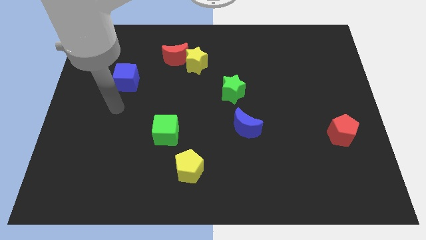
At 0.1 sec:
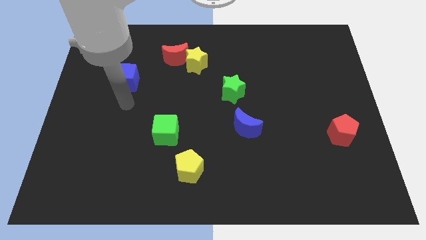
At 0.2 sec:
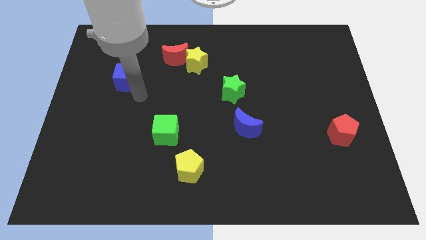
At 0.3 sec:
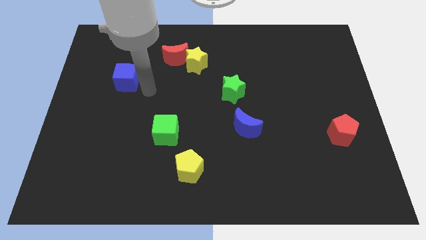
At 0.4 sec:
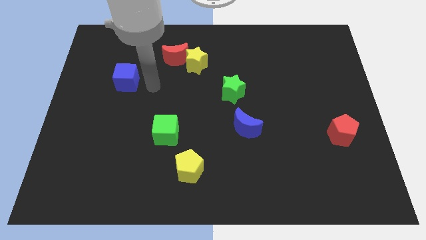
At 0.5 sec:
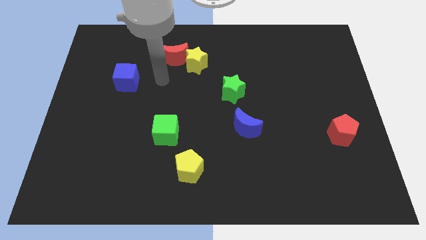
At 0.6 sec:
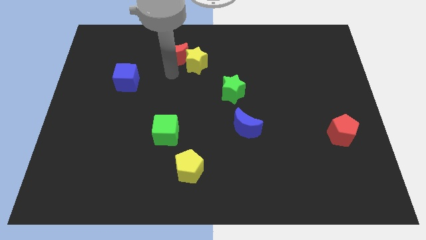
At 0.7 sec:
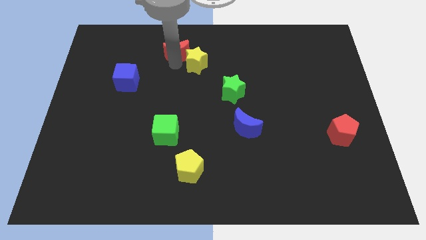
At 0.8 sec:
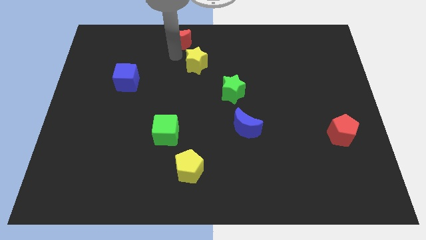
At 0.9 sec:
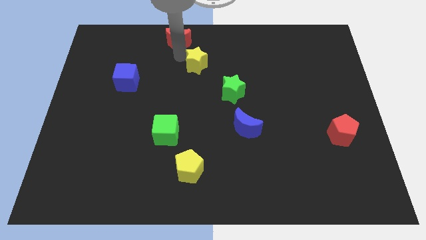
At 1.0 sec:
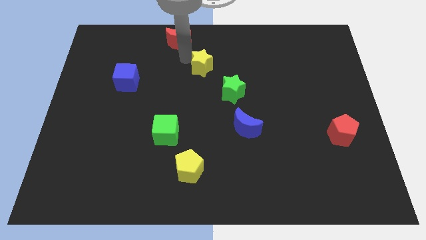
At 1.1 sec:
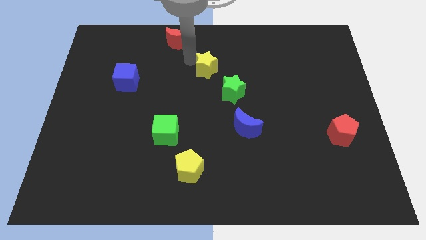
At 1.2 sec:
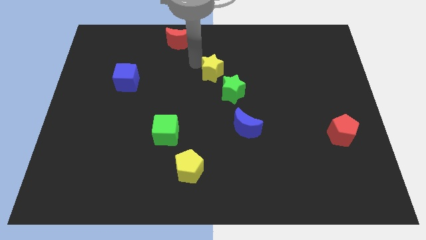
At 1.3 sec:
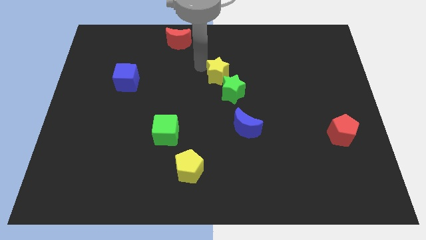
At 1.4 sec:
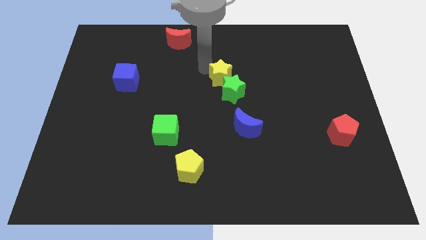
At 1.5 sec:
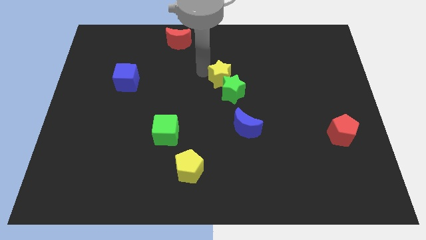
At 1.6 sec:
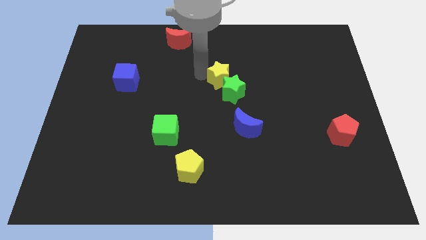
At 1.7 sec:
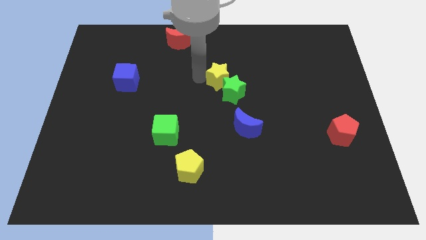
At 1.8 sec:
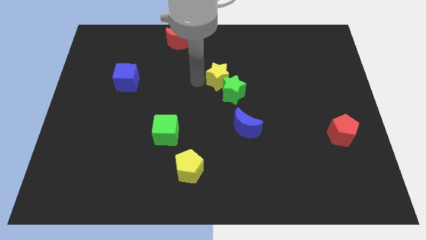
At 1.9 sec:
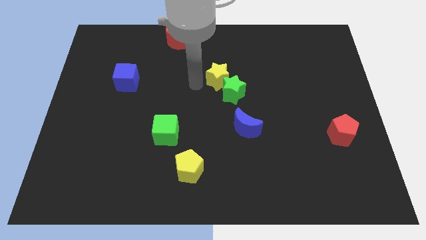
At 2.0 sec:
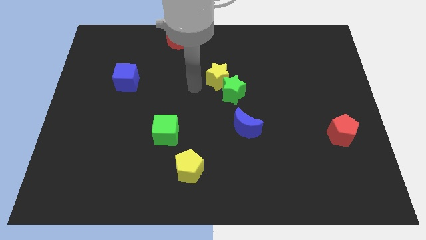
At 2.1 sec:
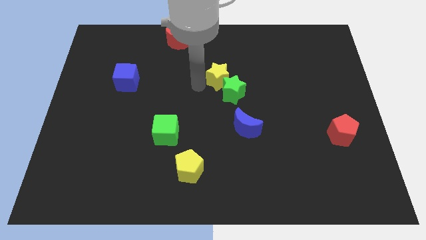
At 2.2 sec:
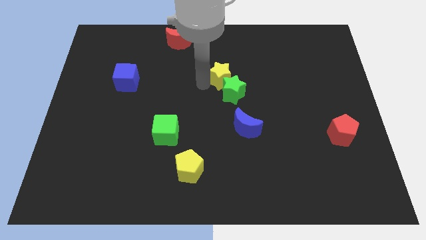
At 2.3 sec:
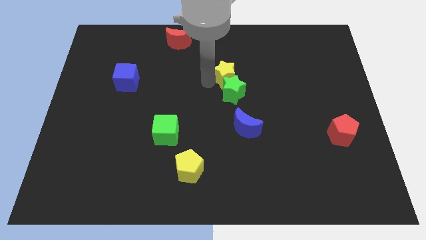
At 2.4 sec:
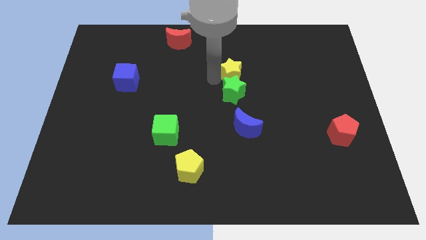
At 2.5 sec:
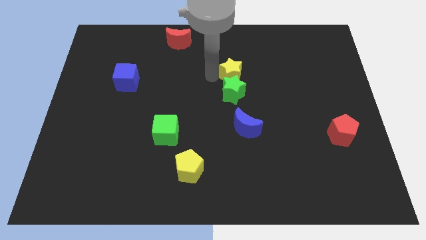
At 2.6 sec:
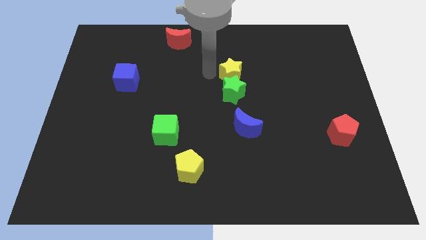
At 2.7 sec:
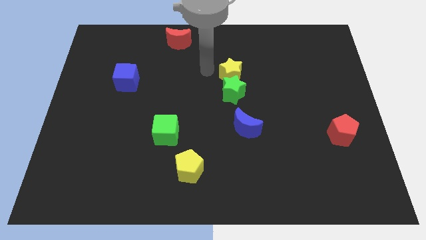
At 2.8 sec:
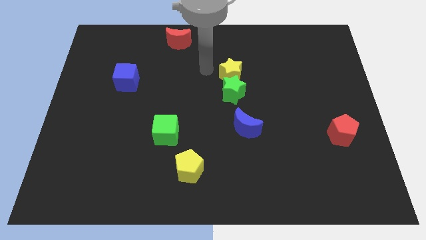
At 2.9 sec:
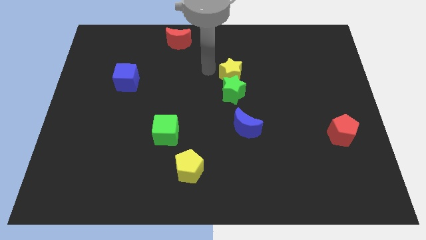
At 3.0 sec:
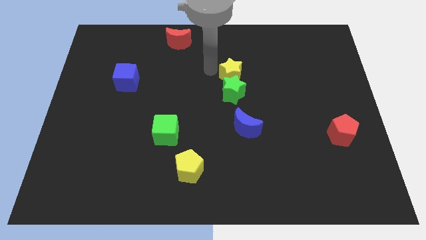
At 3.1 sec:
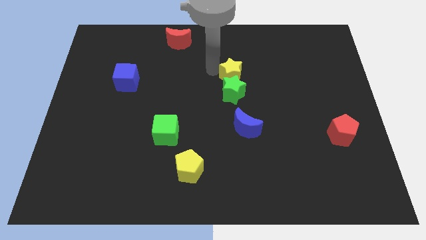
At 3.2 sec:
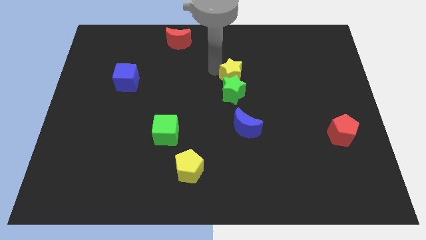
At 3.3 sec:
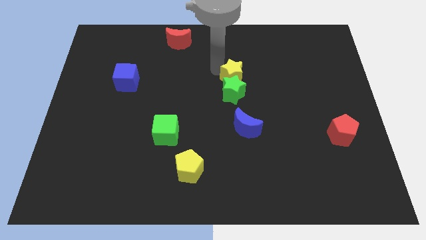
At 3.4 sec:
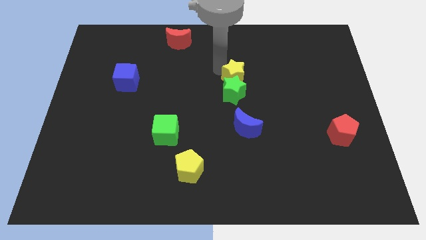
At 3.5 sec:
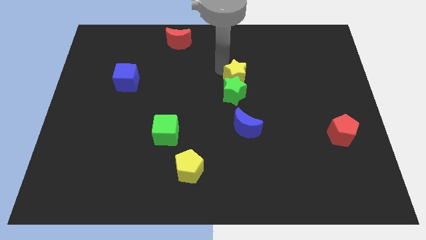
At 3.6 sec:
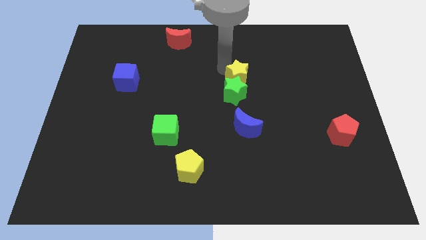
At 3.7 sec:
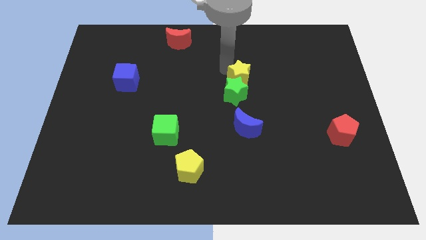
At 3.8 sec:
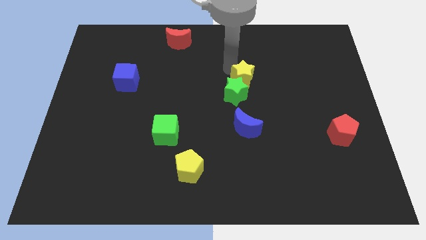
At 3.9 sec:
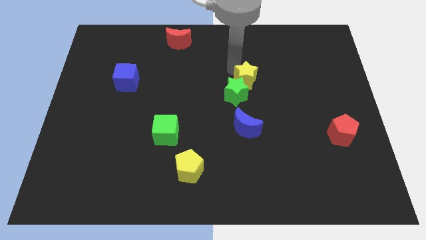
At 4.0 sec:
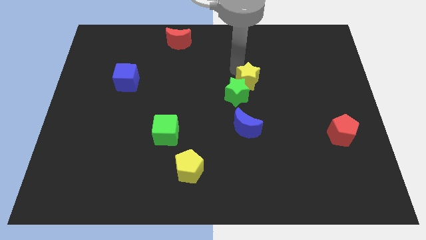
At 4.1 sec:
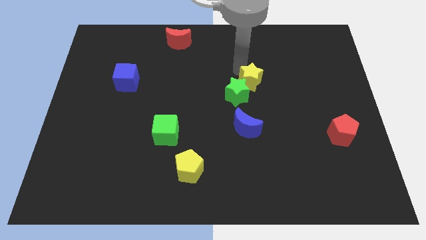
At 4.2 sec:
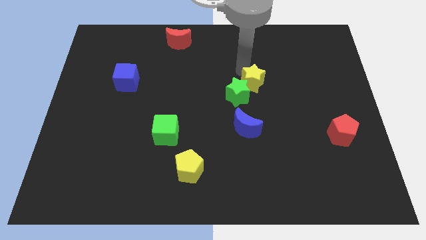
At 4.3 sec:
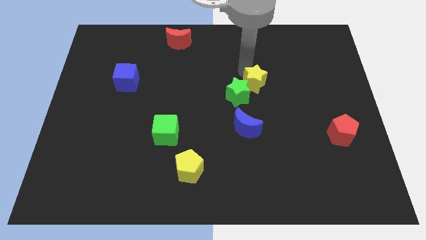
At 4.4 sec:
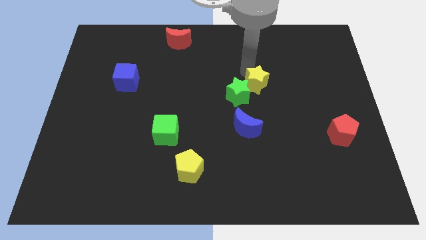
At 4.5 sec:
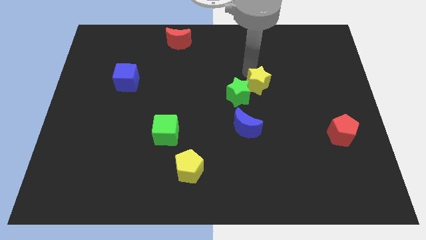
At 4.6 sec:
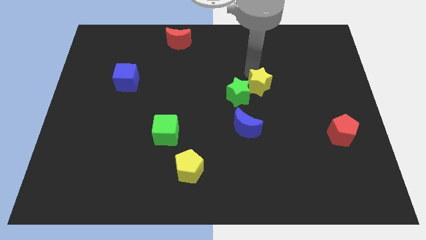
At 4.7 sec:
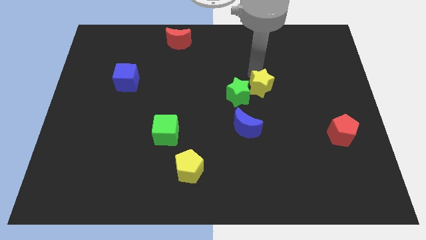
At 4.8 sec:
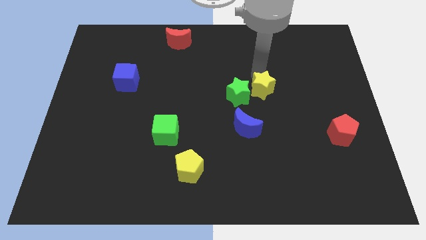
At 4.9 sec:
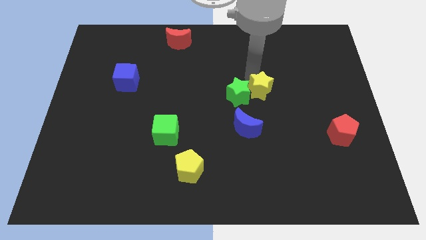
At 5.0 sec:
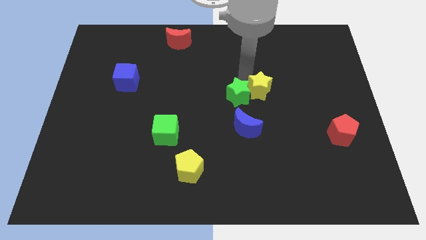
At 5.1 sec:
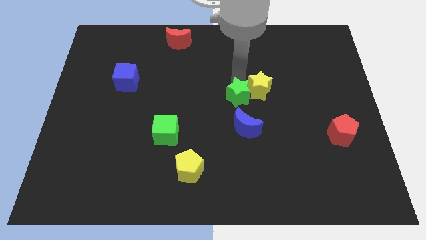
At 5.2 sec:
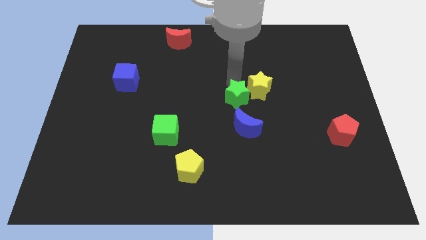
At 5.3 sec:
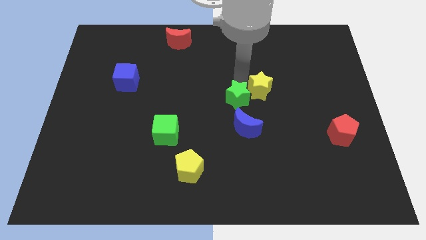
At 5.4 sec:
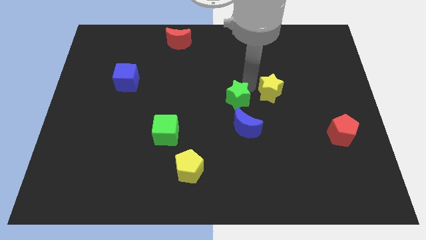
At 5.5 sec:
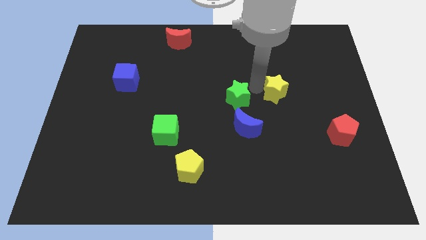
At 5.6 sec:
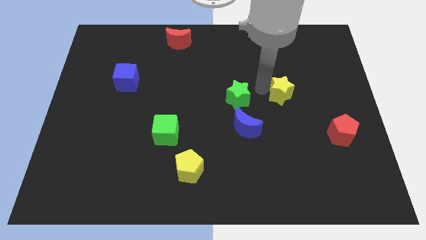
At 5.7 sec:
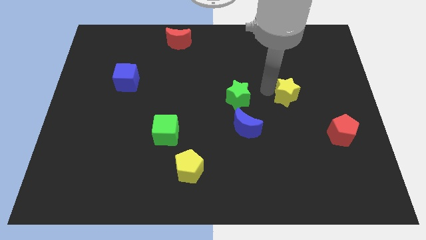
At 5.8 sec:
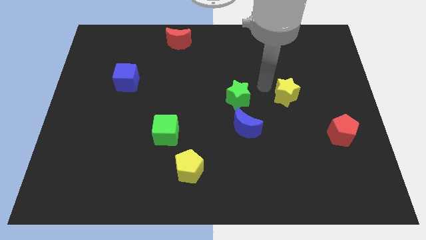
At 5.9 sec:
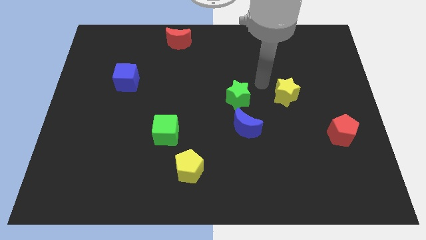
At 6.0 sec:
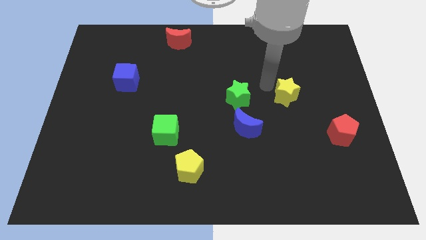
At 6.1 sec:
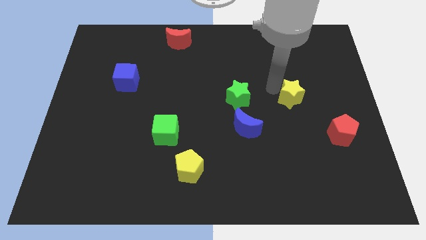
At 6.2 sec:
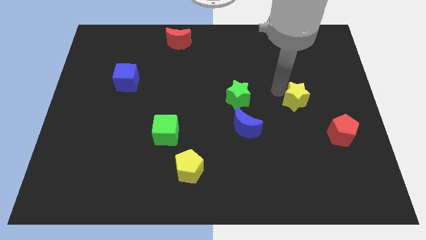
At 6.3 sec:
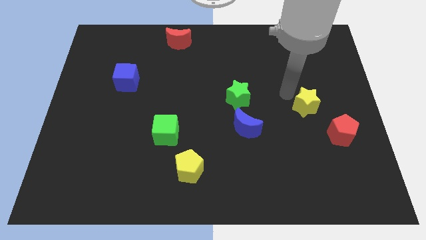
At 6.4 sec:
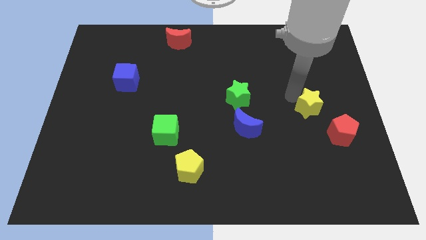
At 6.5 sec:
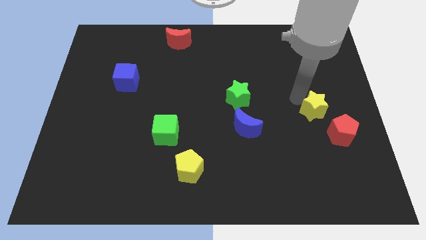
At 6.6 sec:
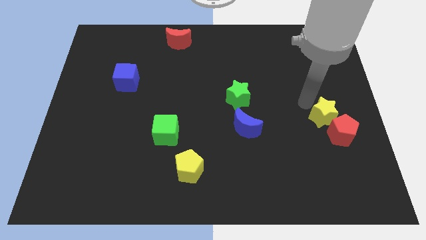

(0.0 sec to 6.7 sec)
push the yellow star towards the red pentagon

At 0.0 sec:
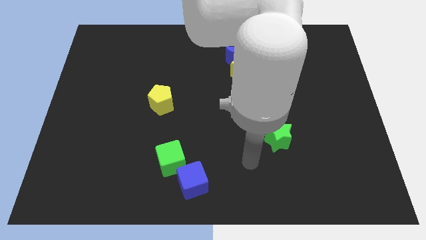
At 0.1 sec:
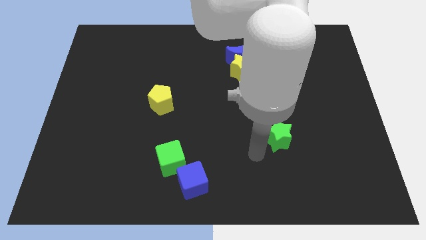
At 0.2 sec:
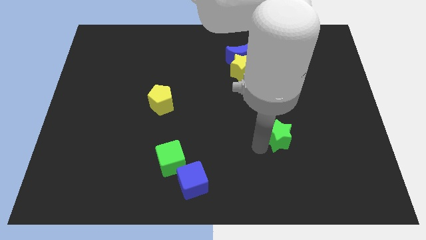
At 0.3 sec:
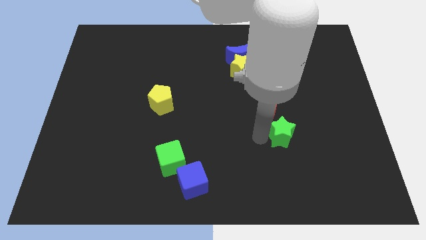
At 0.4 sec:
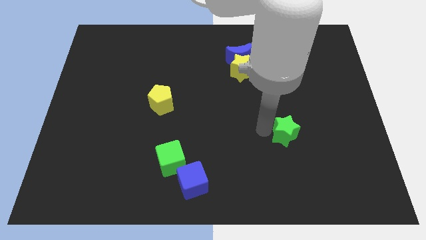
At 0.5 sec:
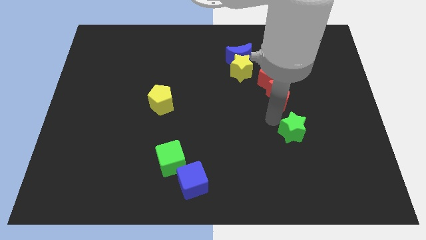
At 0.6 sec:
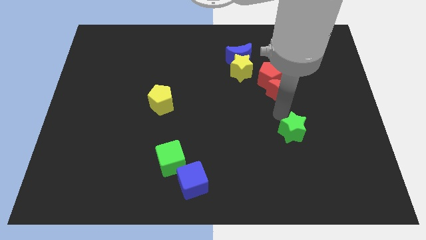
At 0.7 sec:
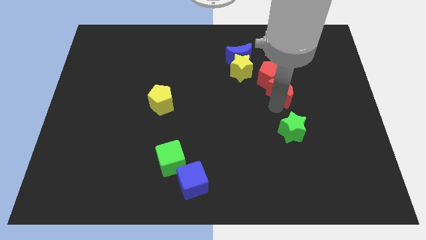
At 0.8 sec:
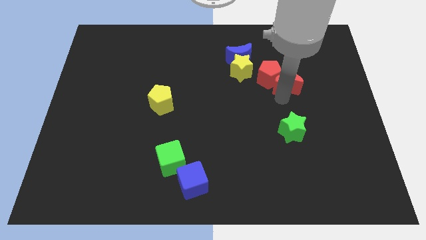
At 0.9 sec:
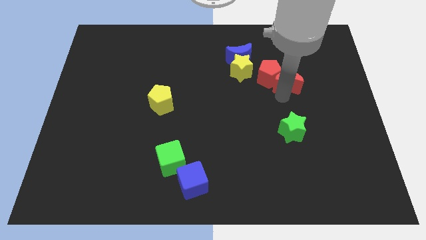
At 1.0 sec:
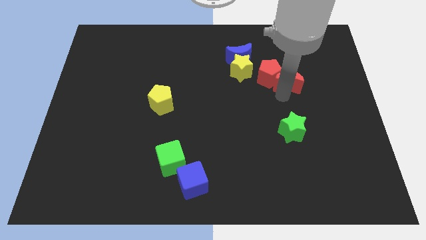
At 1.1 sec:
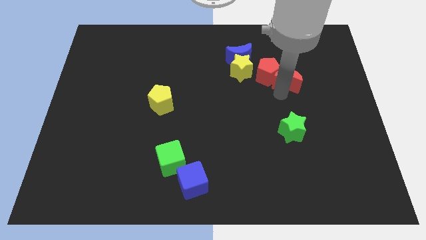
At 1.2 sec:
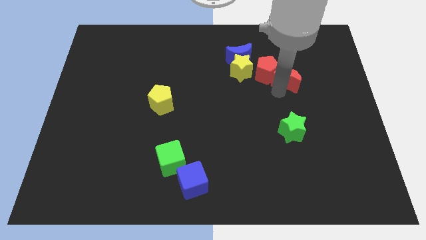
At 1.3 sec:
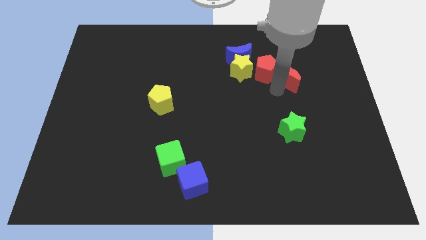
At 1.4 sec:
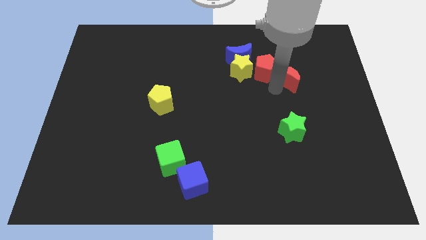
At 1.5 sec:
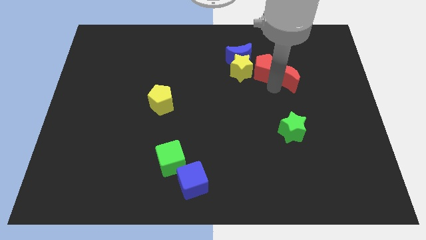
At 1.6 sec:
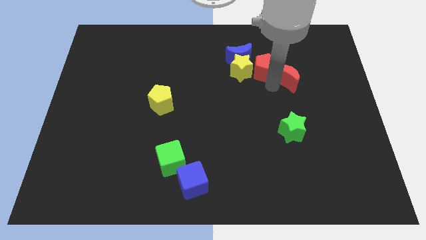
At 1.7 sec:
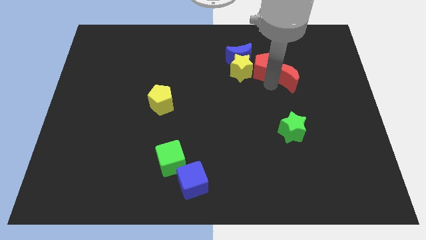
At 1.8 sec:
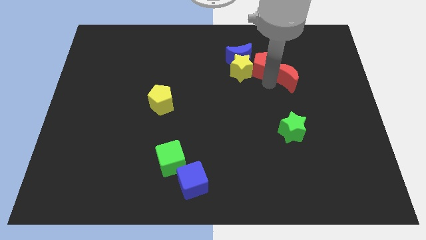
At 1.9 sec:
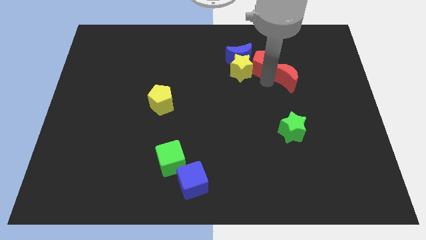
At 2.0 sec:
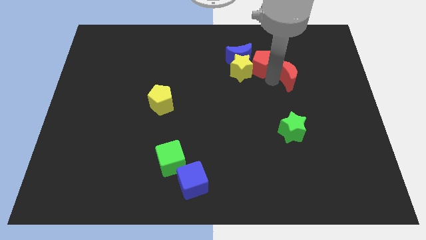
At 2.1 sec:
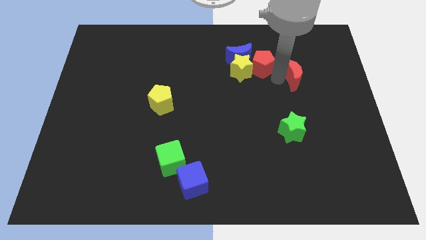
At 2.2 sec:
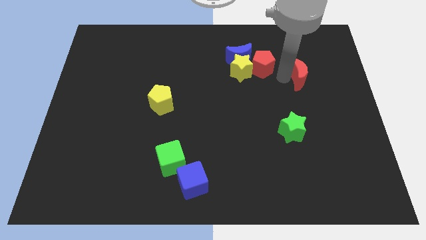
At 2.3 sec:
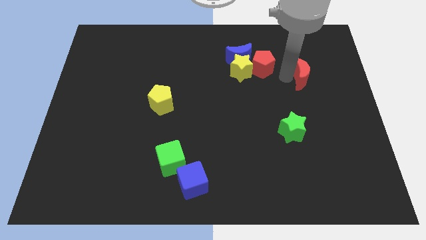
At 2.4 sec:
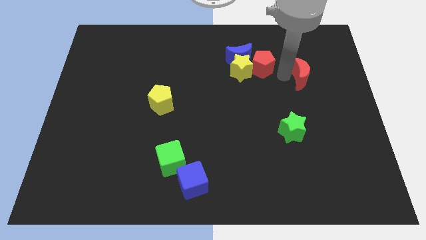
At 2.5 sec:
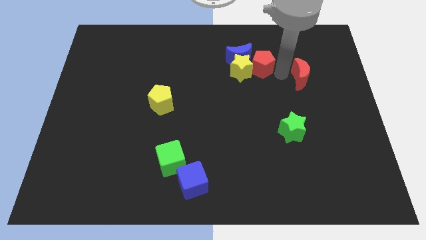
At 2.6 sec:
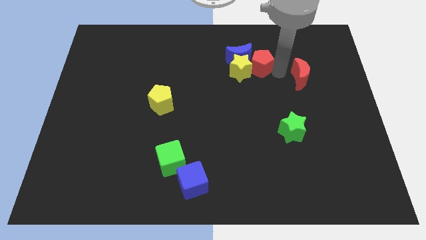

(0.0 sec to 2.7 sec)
move the red pentagon next to the blue moon
